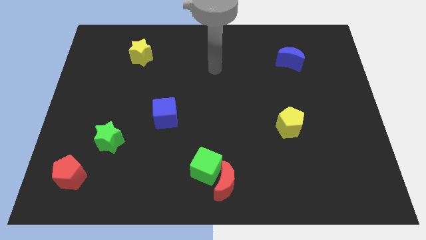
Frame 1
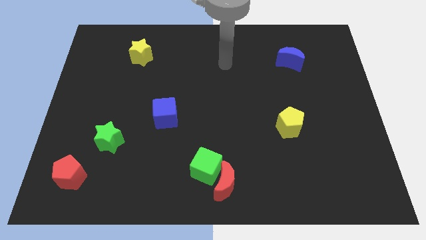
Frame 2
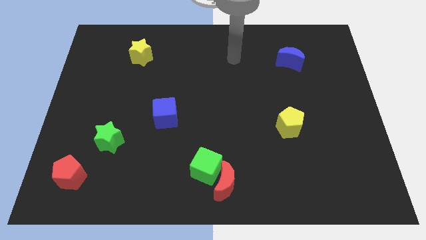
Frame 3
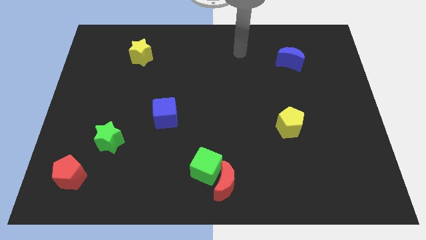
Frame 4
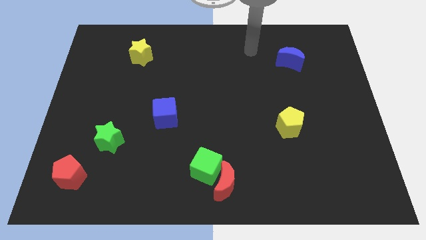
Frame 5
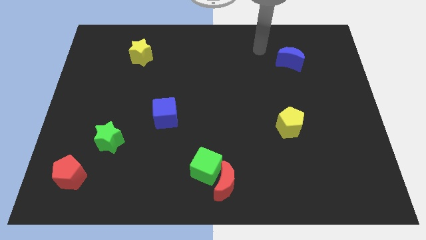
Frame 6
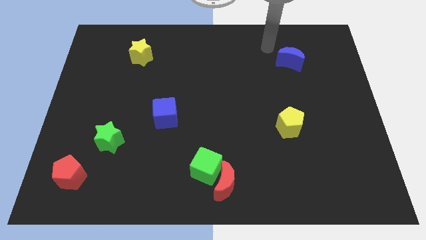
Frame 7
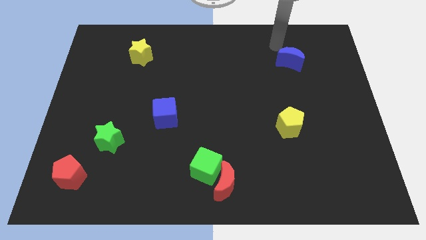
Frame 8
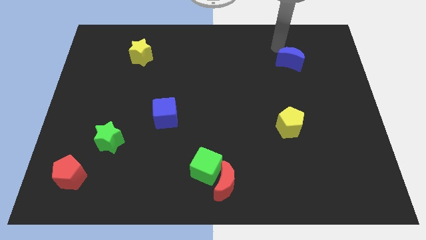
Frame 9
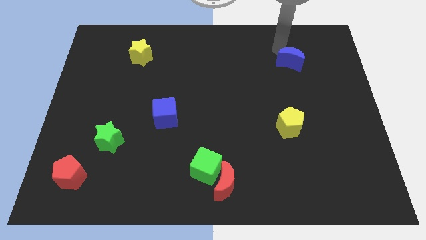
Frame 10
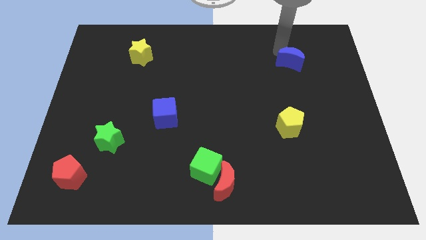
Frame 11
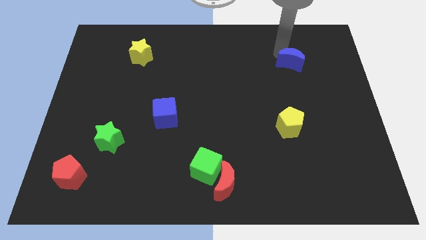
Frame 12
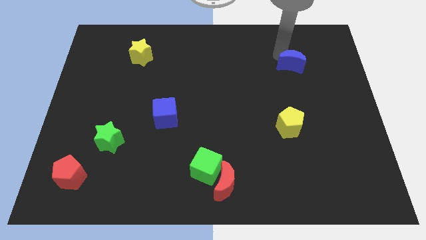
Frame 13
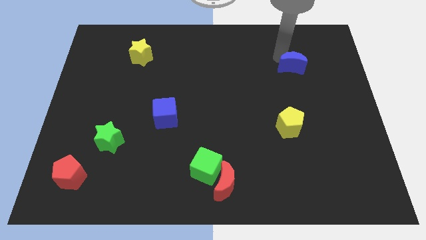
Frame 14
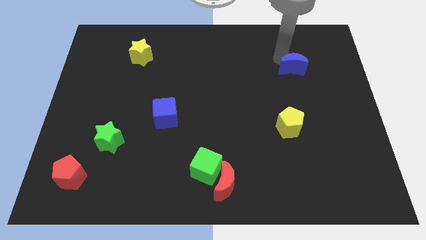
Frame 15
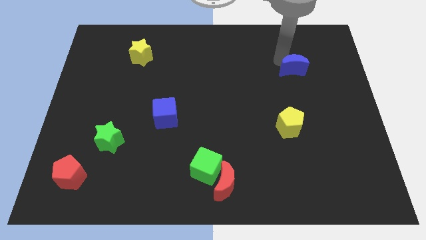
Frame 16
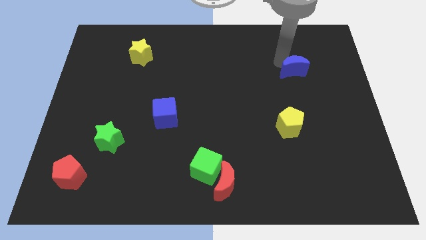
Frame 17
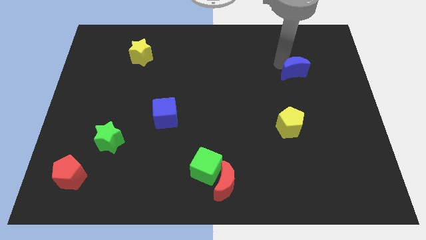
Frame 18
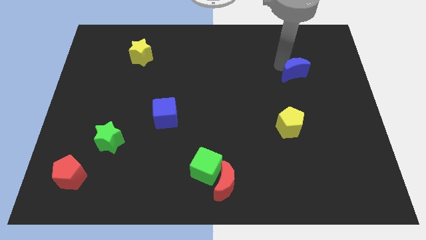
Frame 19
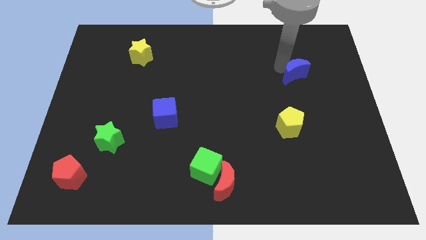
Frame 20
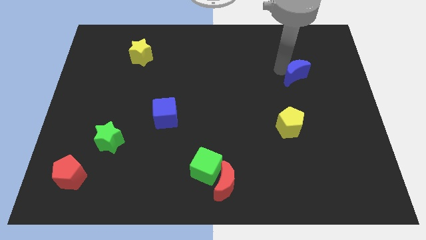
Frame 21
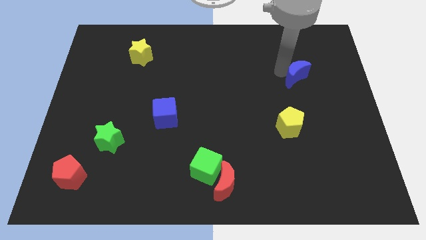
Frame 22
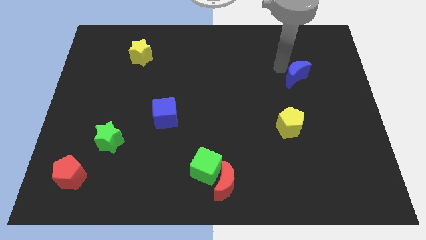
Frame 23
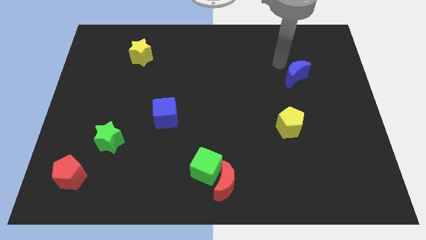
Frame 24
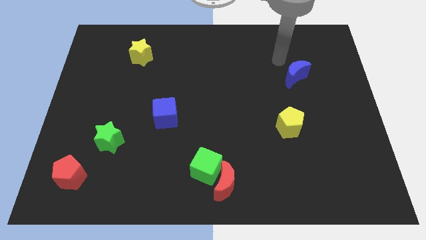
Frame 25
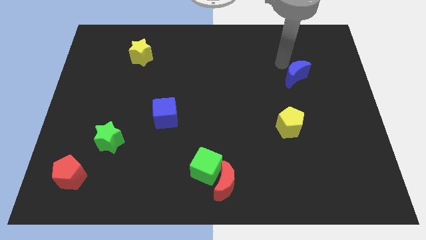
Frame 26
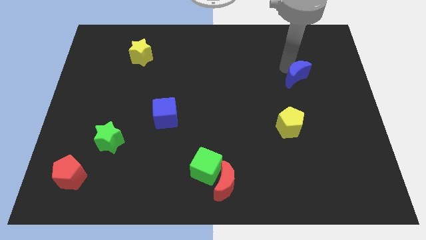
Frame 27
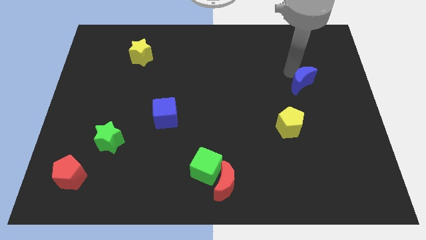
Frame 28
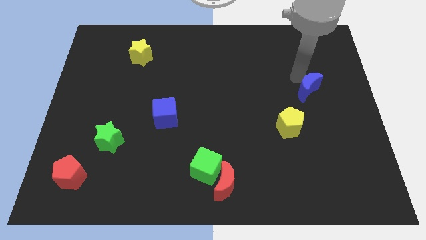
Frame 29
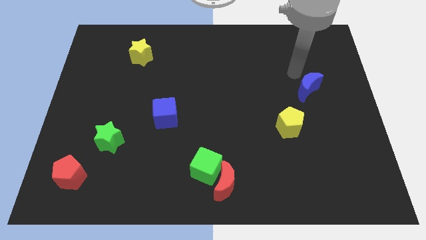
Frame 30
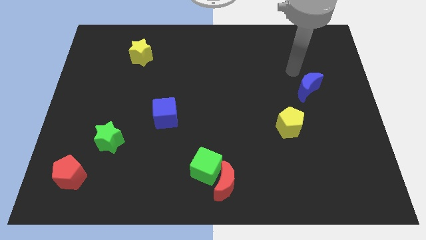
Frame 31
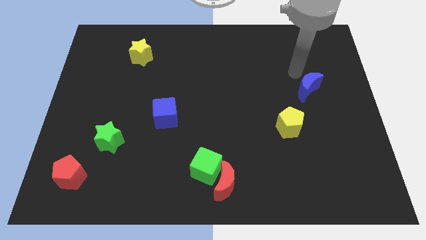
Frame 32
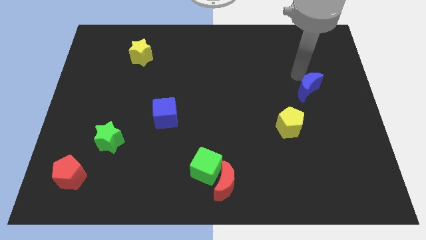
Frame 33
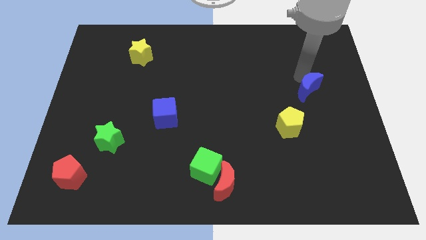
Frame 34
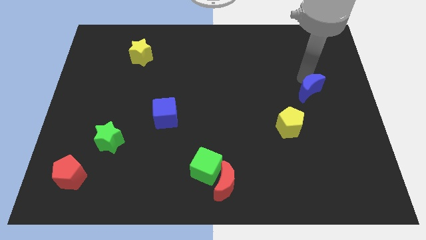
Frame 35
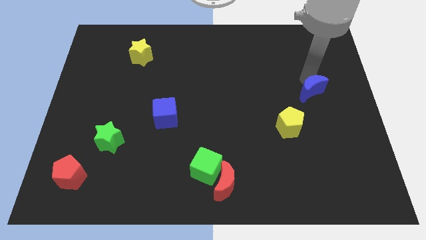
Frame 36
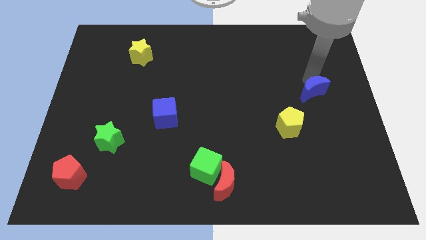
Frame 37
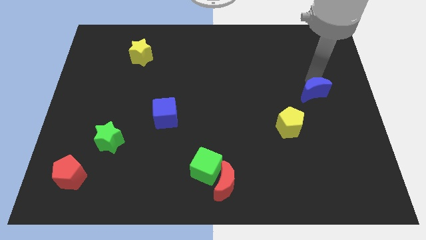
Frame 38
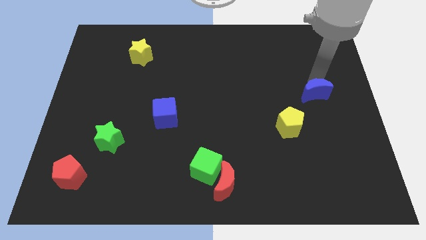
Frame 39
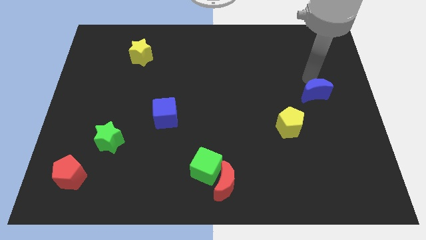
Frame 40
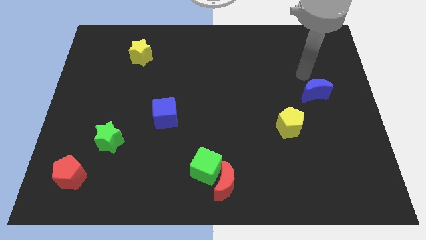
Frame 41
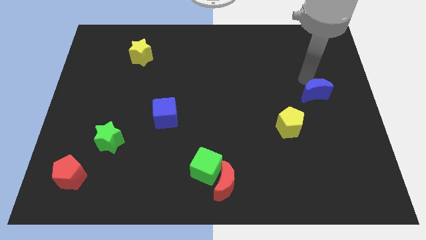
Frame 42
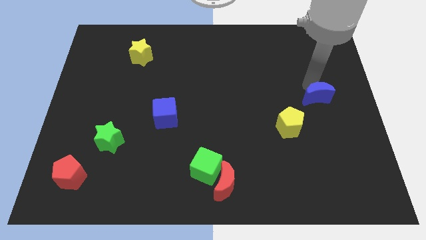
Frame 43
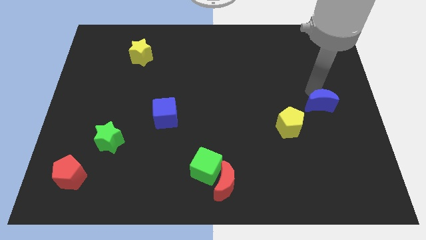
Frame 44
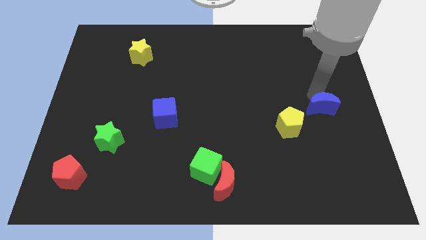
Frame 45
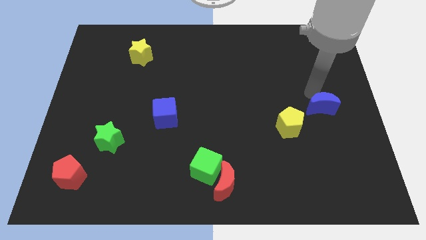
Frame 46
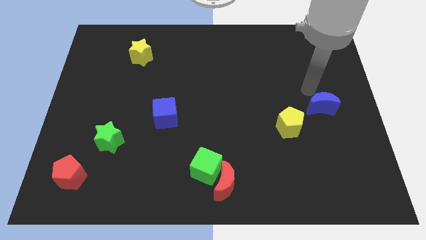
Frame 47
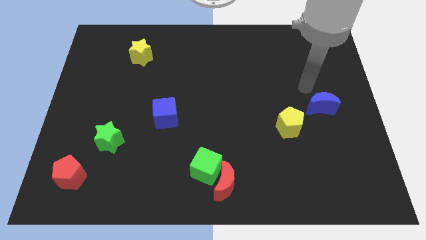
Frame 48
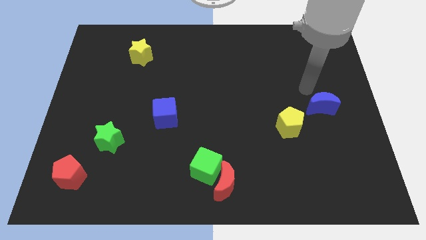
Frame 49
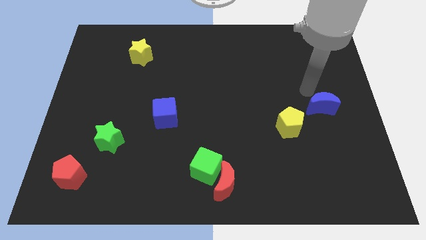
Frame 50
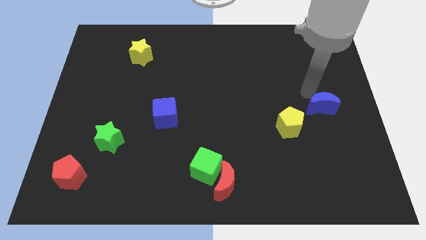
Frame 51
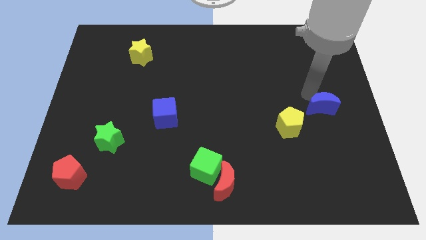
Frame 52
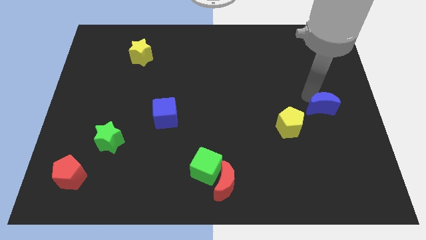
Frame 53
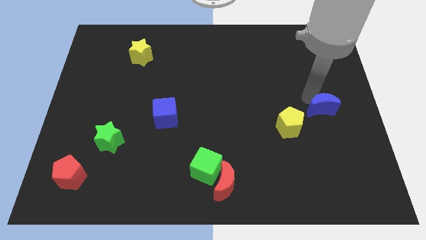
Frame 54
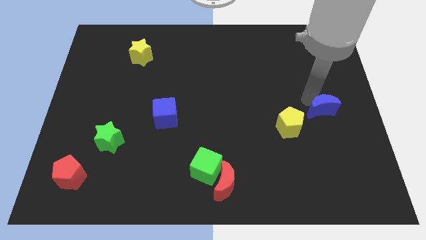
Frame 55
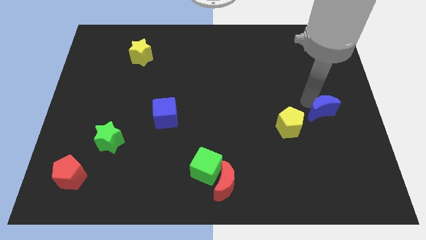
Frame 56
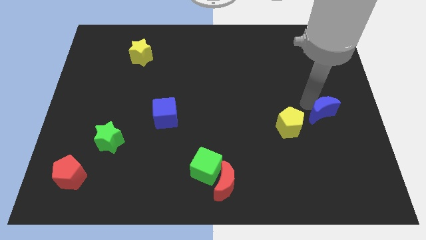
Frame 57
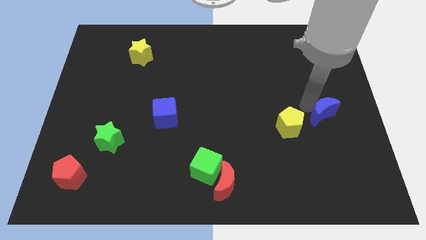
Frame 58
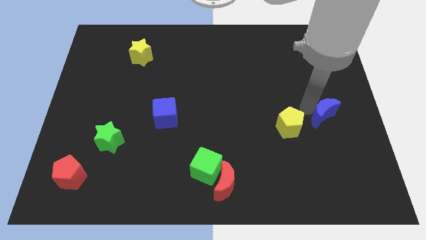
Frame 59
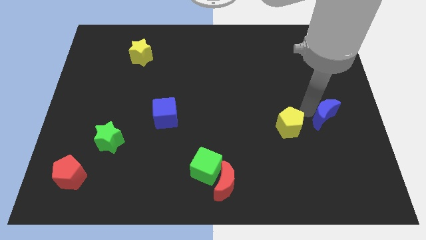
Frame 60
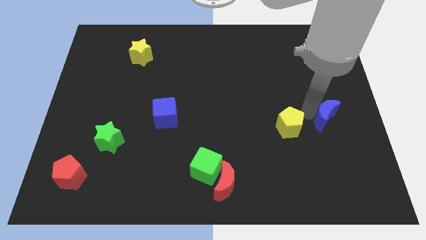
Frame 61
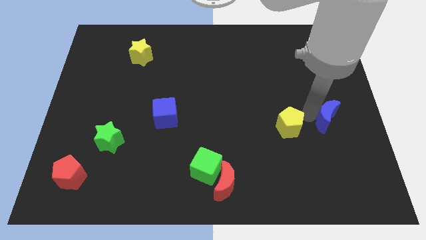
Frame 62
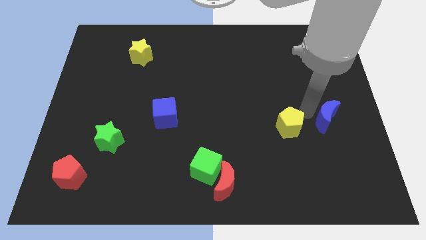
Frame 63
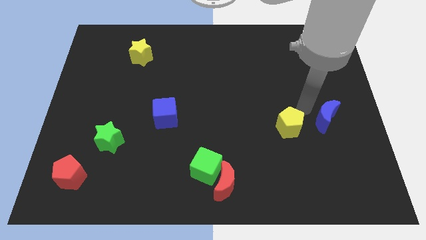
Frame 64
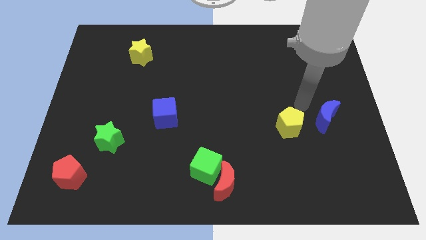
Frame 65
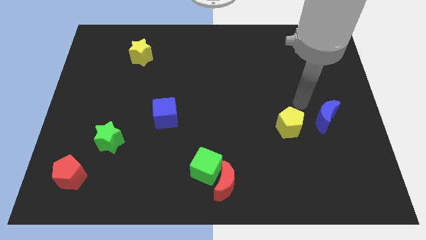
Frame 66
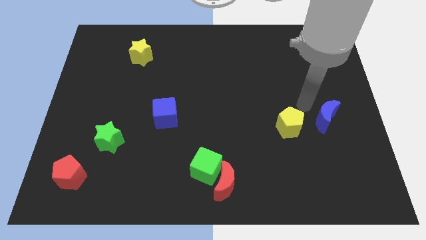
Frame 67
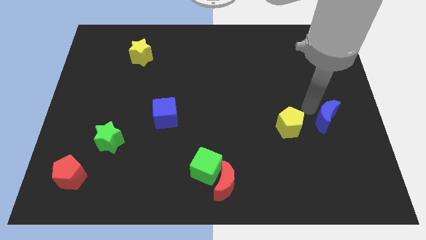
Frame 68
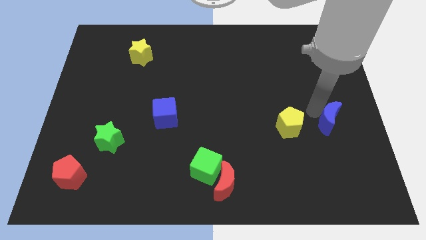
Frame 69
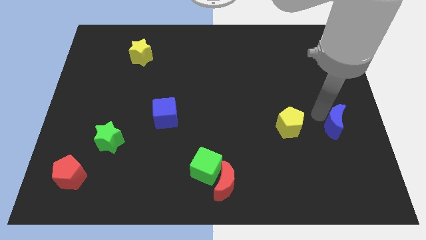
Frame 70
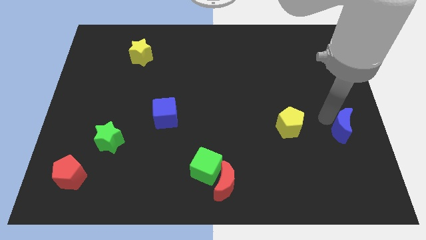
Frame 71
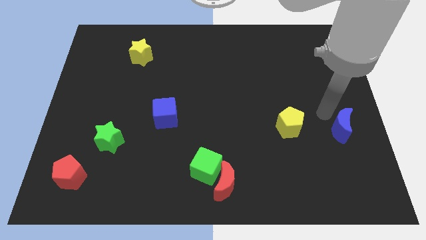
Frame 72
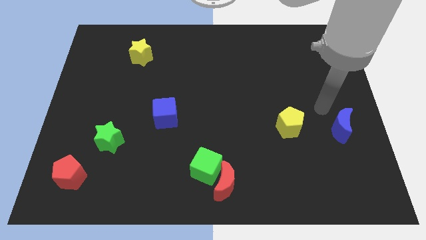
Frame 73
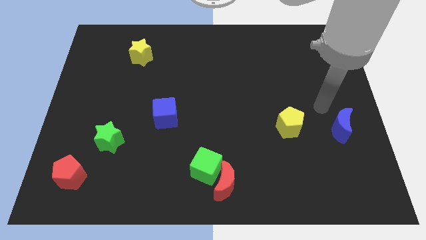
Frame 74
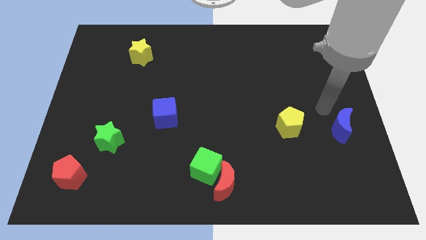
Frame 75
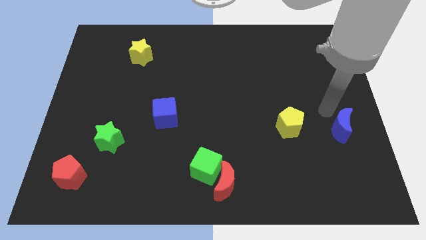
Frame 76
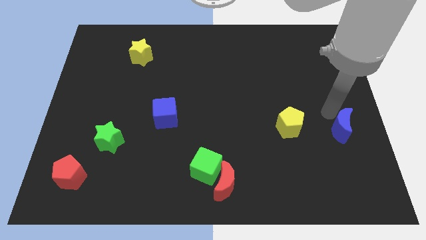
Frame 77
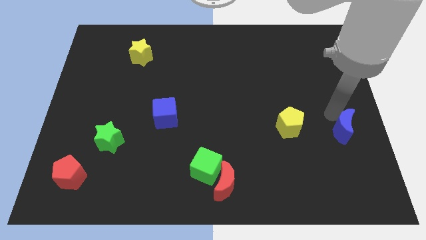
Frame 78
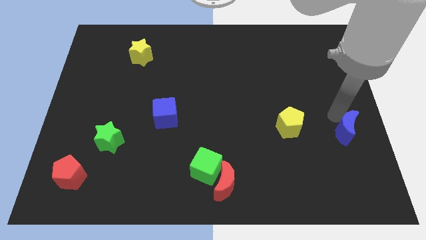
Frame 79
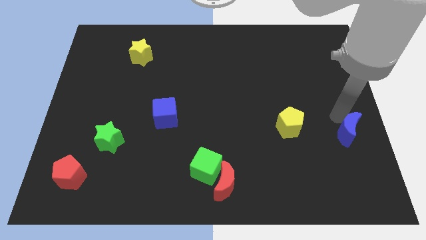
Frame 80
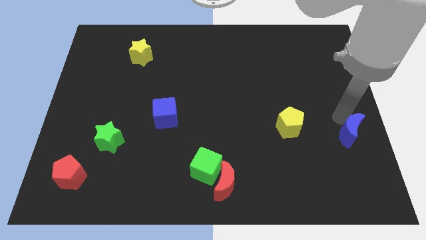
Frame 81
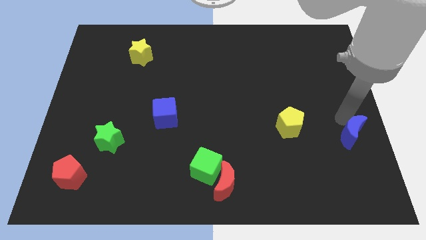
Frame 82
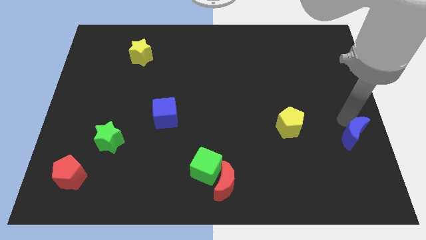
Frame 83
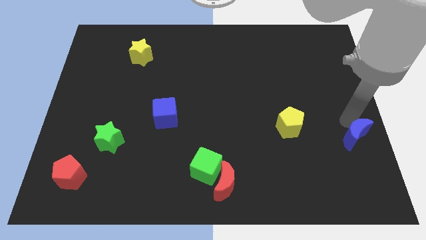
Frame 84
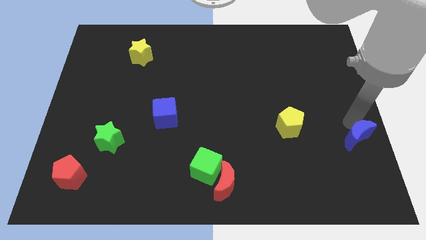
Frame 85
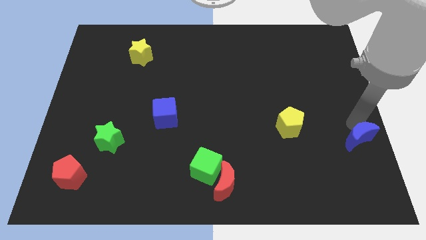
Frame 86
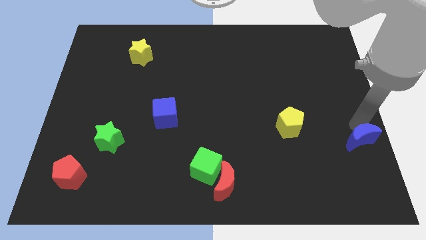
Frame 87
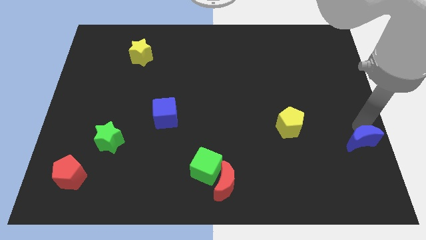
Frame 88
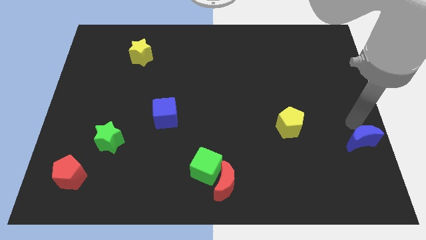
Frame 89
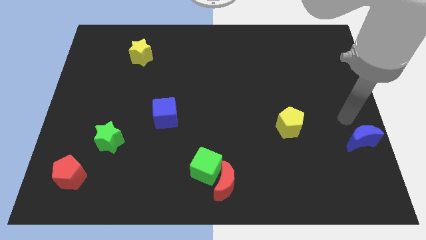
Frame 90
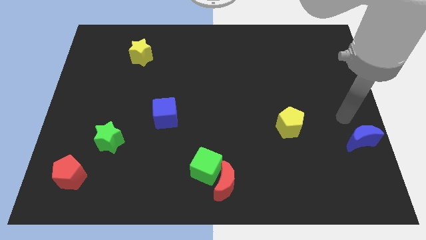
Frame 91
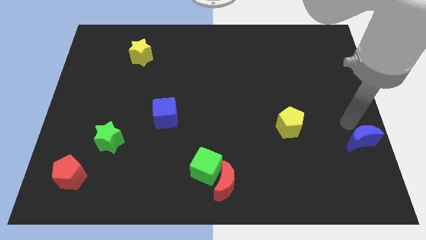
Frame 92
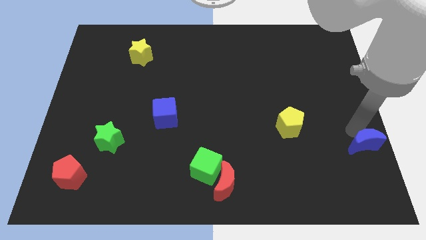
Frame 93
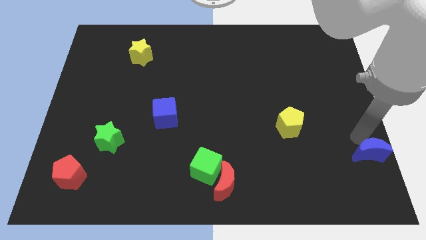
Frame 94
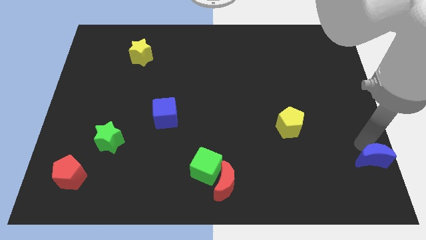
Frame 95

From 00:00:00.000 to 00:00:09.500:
put the blue moon to the bottom right of the board
